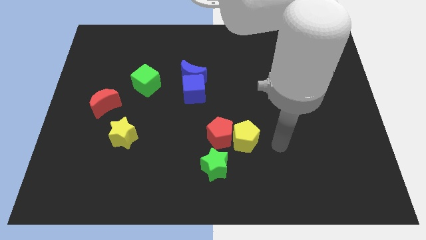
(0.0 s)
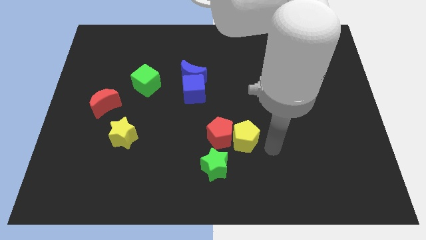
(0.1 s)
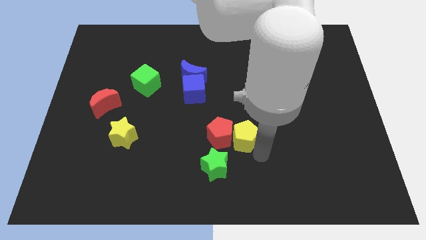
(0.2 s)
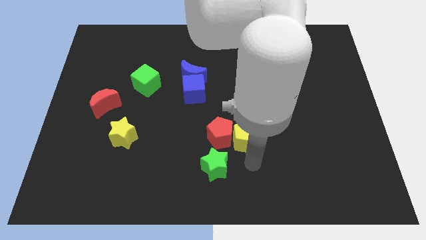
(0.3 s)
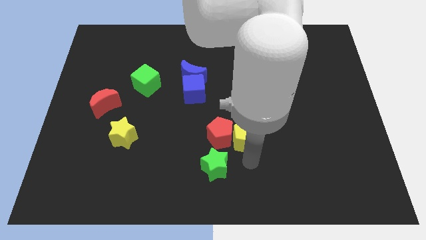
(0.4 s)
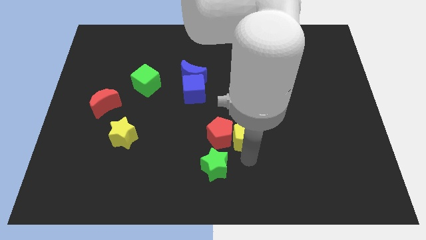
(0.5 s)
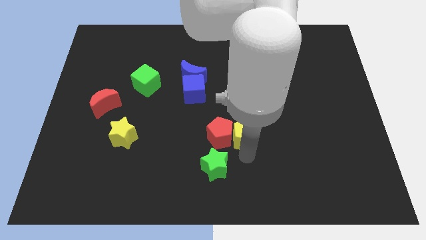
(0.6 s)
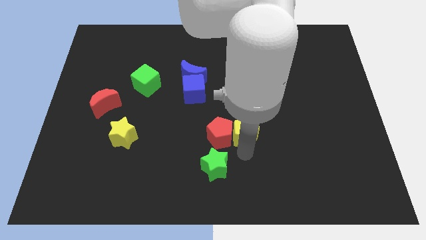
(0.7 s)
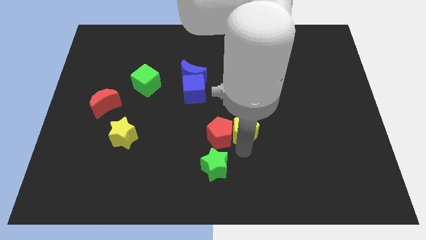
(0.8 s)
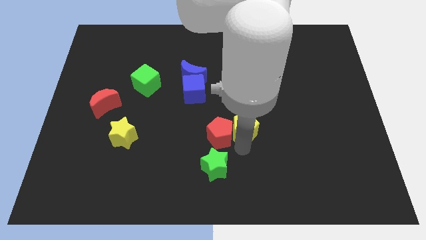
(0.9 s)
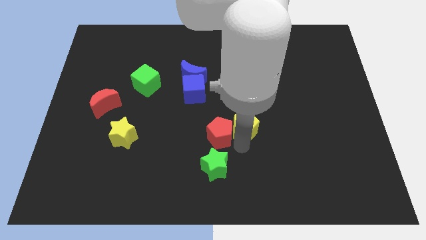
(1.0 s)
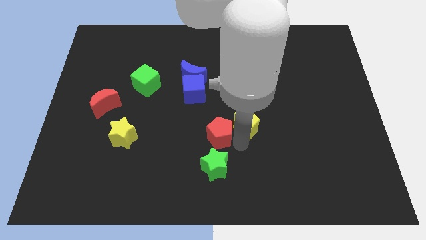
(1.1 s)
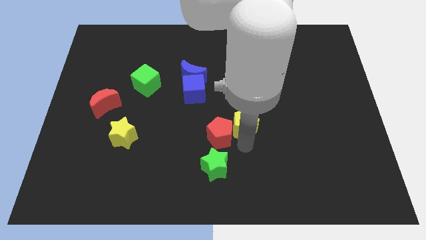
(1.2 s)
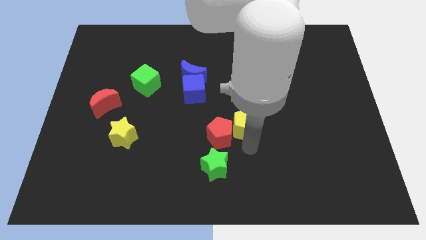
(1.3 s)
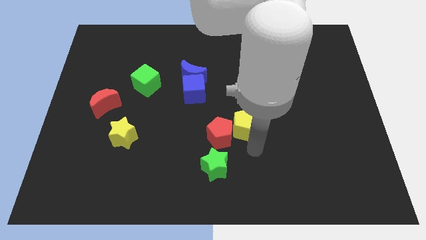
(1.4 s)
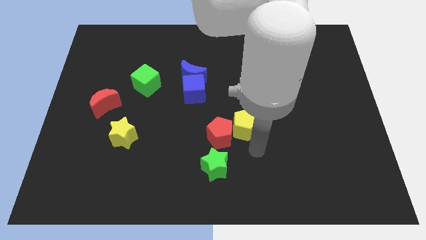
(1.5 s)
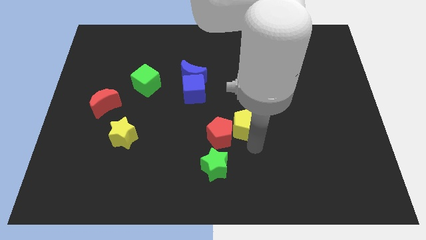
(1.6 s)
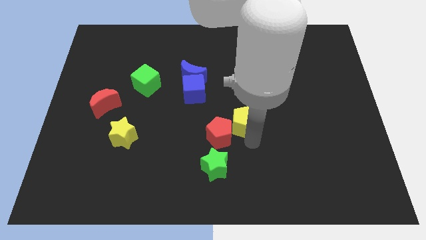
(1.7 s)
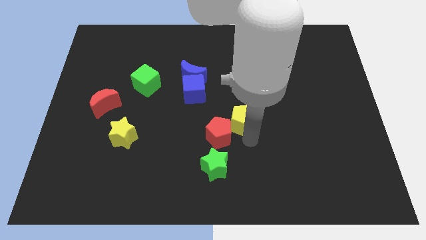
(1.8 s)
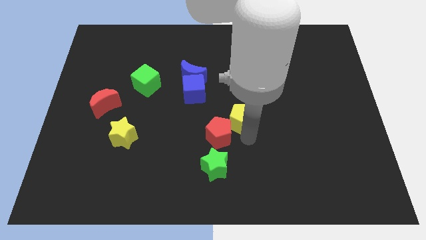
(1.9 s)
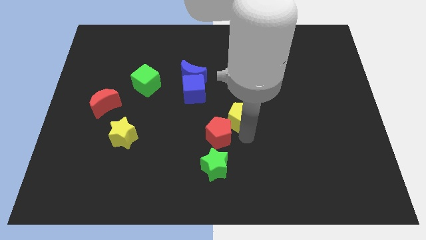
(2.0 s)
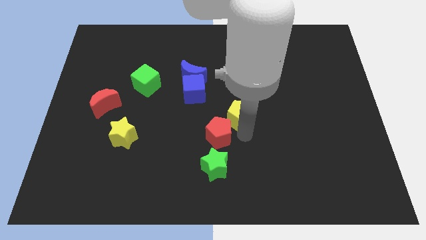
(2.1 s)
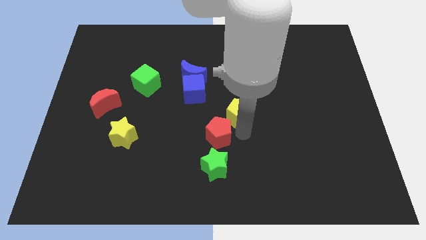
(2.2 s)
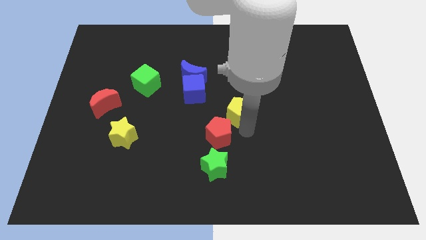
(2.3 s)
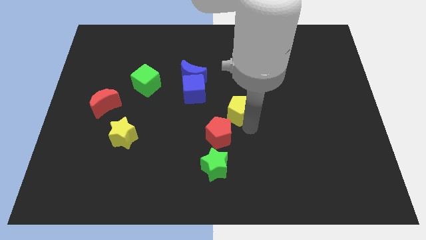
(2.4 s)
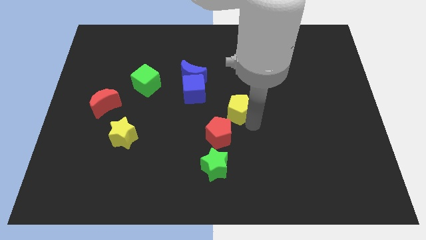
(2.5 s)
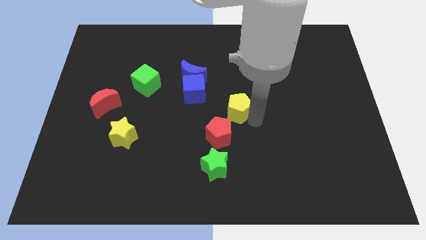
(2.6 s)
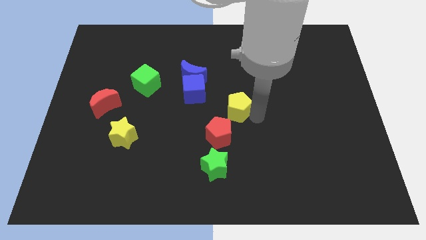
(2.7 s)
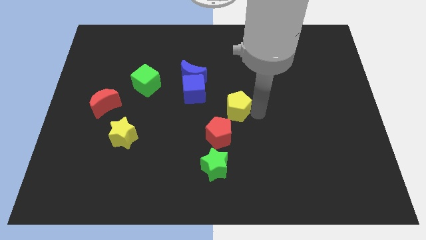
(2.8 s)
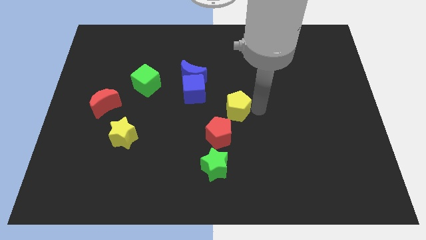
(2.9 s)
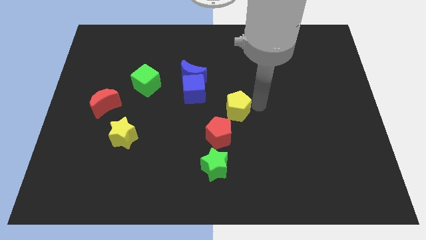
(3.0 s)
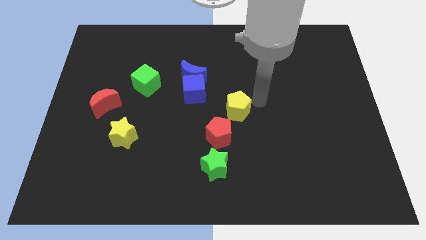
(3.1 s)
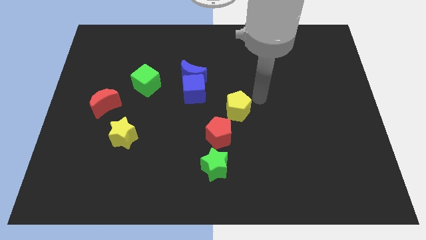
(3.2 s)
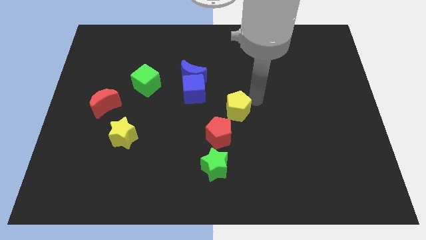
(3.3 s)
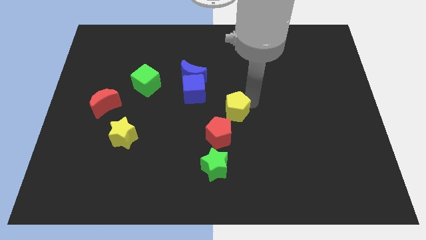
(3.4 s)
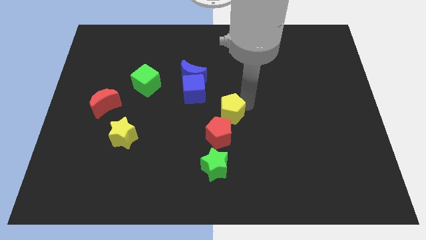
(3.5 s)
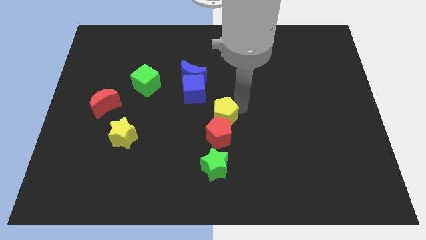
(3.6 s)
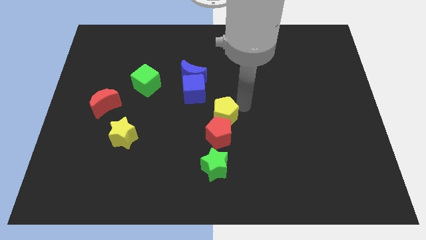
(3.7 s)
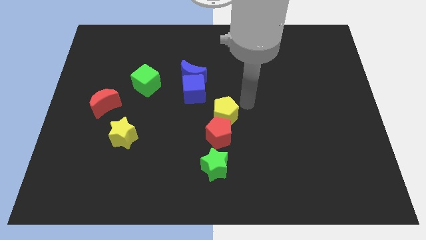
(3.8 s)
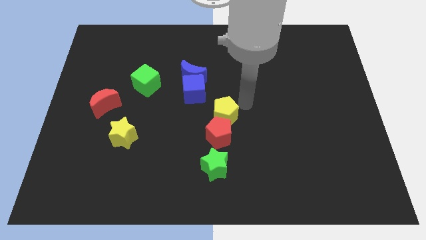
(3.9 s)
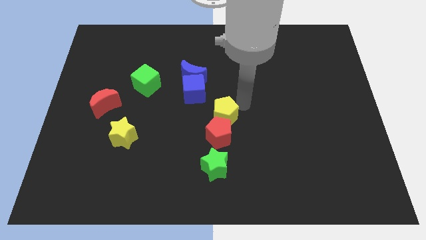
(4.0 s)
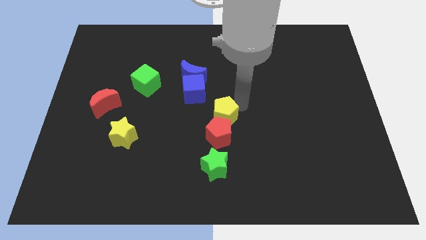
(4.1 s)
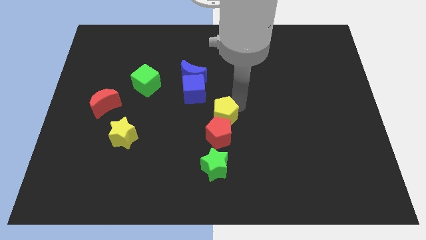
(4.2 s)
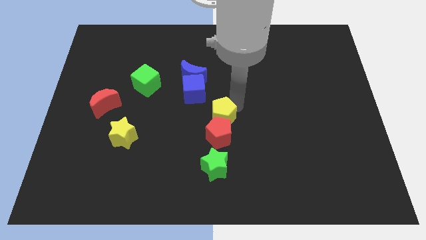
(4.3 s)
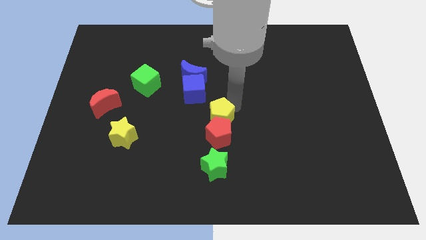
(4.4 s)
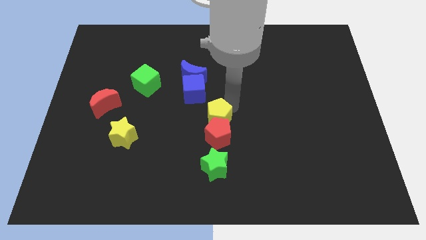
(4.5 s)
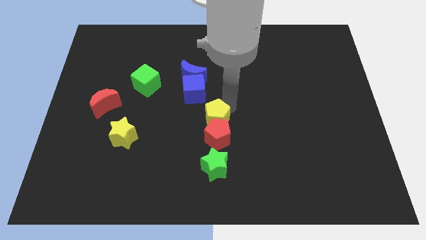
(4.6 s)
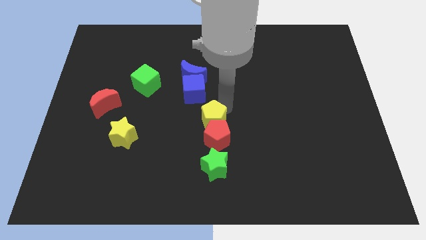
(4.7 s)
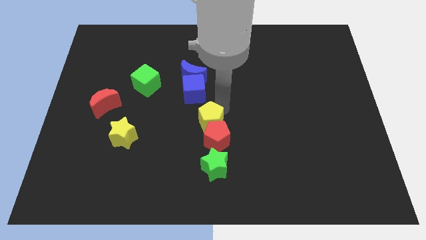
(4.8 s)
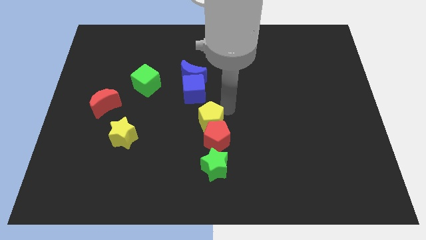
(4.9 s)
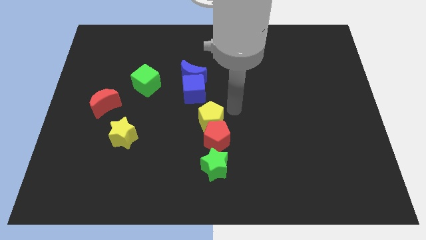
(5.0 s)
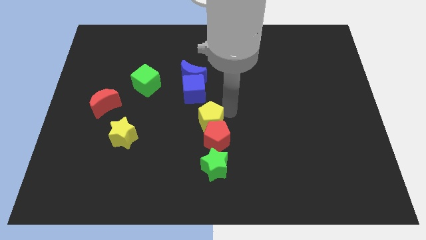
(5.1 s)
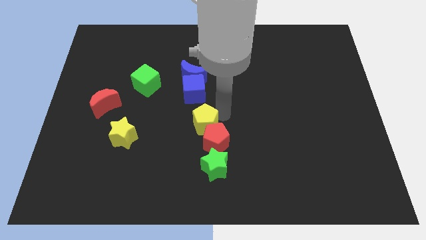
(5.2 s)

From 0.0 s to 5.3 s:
push the yellow pentagon to the left somewhat

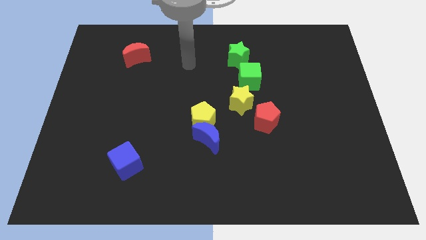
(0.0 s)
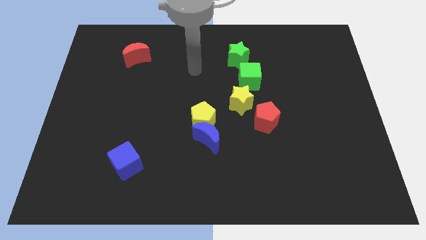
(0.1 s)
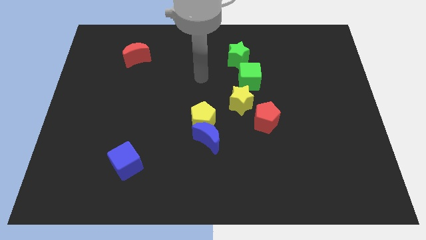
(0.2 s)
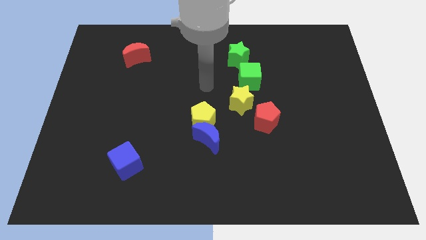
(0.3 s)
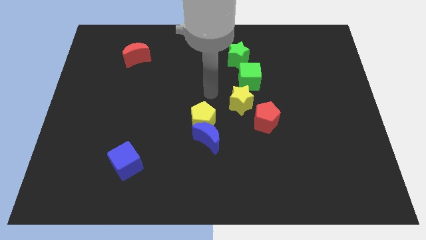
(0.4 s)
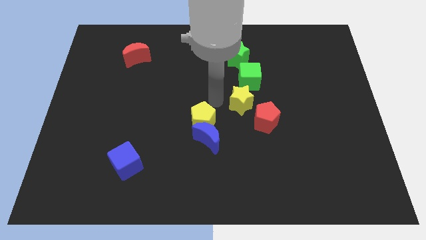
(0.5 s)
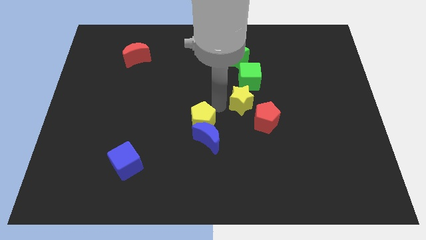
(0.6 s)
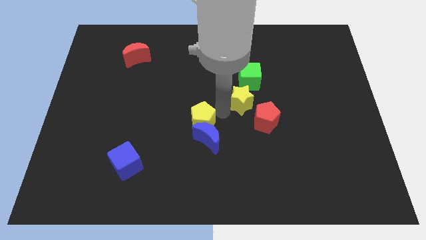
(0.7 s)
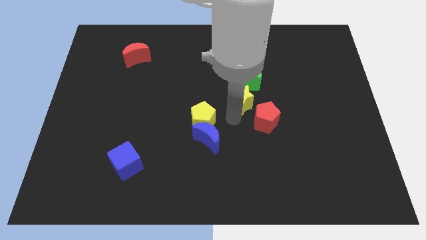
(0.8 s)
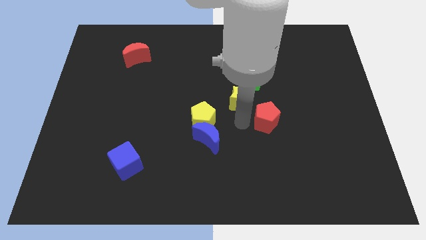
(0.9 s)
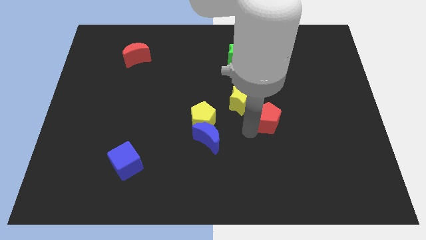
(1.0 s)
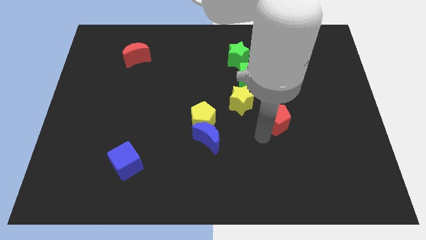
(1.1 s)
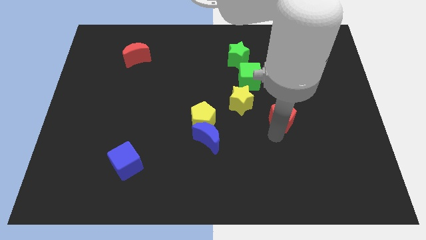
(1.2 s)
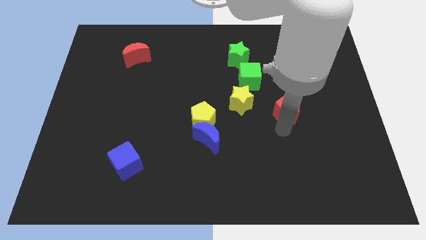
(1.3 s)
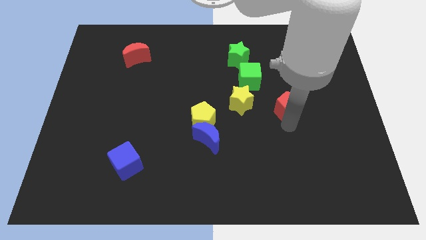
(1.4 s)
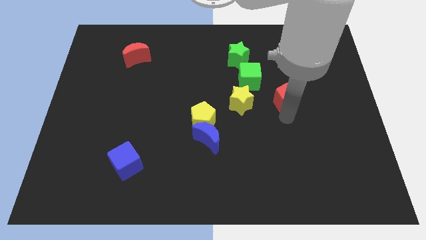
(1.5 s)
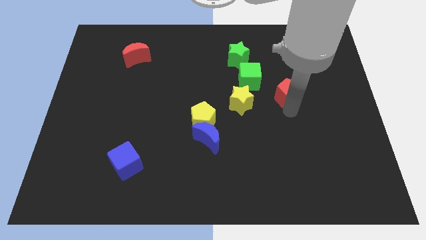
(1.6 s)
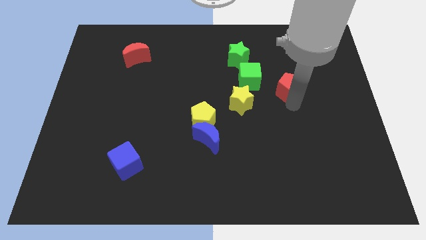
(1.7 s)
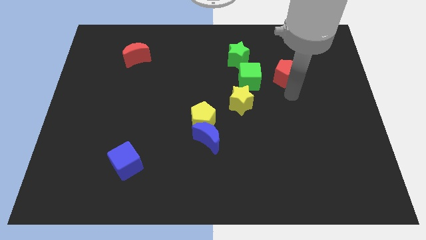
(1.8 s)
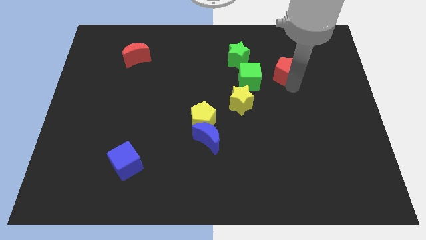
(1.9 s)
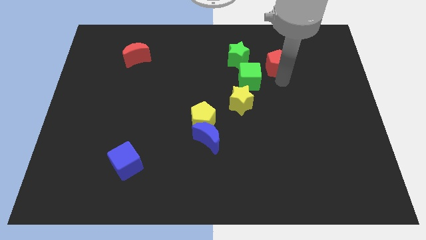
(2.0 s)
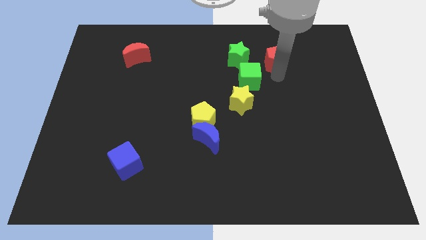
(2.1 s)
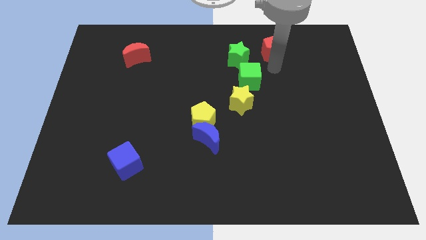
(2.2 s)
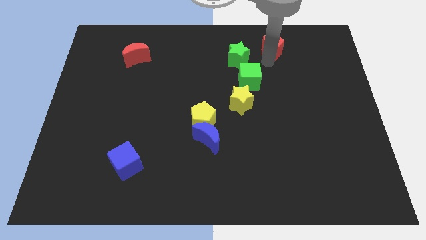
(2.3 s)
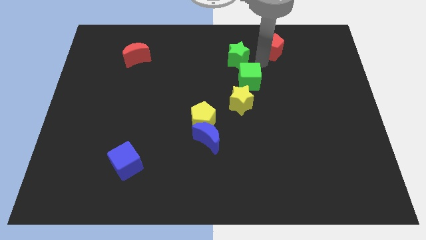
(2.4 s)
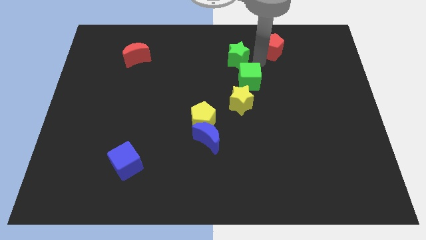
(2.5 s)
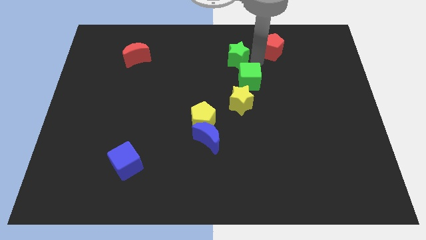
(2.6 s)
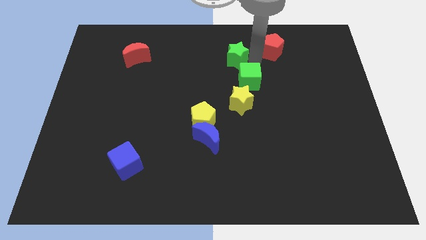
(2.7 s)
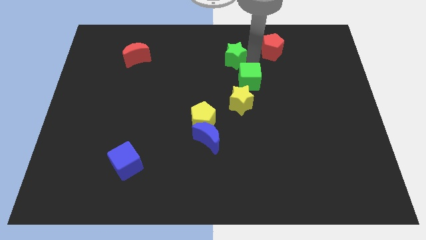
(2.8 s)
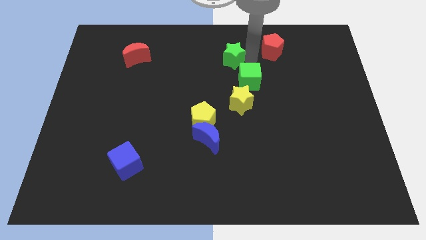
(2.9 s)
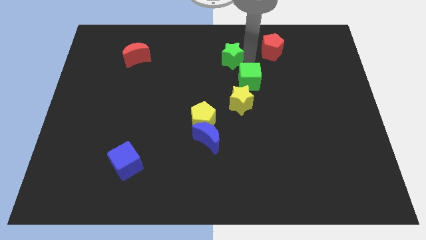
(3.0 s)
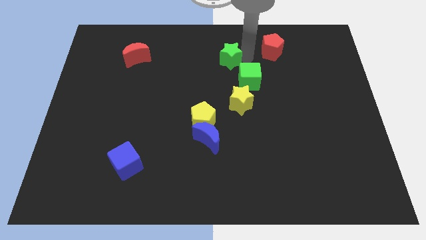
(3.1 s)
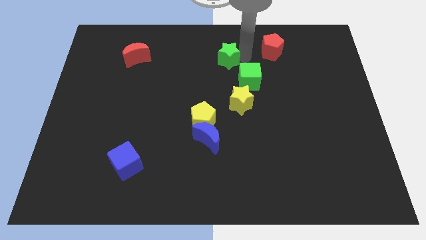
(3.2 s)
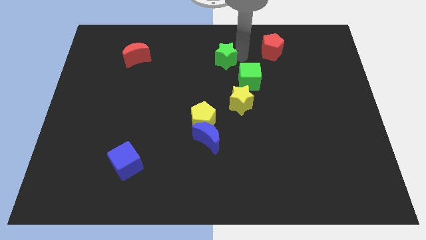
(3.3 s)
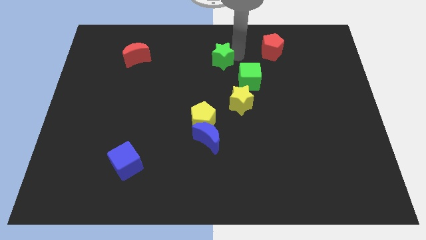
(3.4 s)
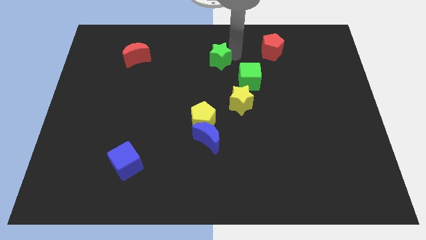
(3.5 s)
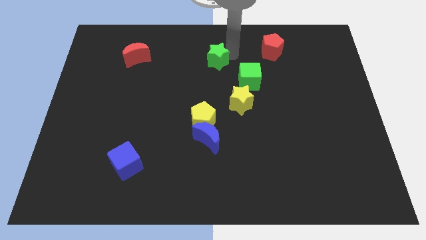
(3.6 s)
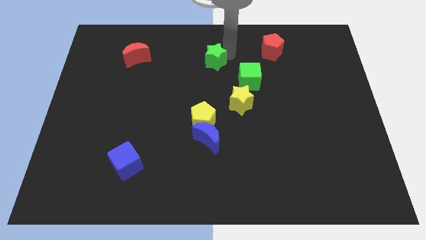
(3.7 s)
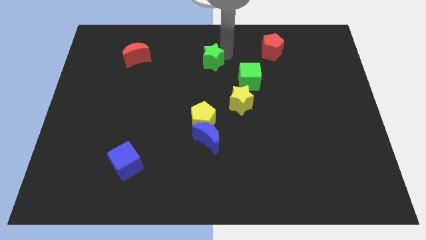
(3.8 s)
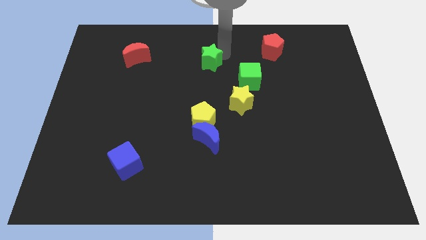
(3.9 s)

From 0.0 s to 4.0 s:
move the green star somewhat left
